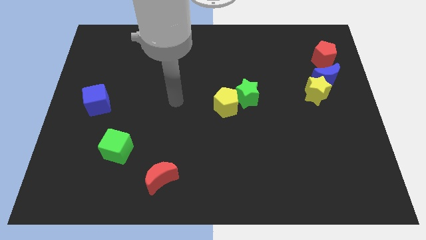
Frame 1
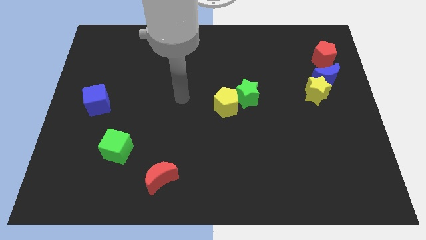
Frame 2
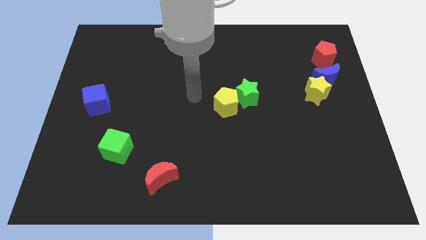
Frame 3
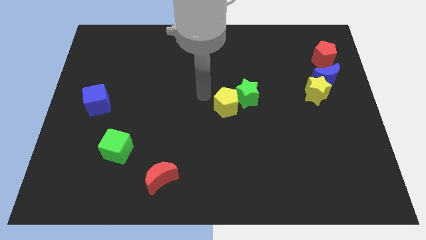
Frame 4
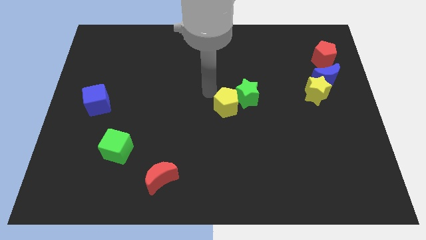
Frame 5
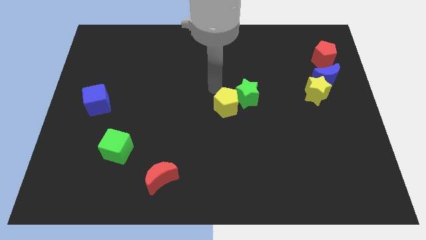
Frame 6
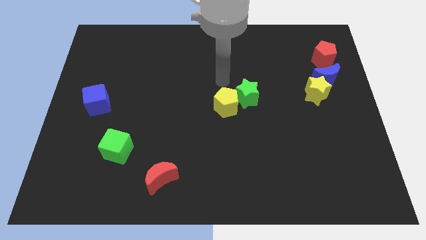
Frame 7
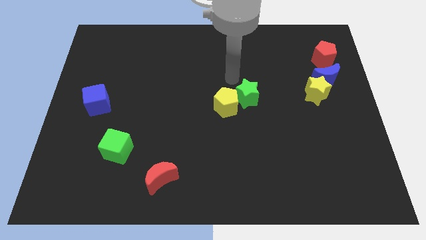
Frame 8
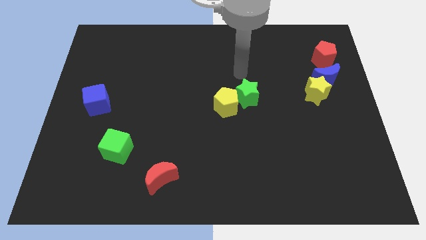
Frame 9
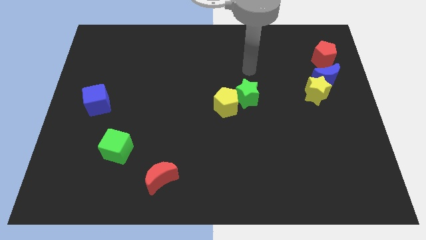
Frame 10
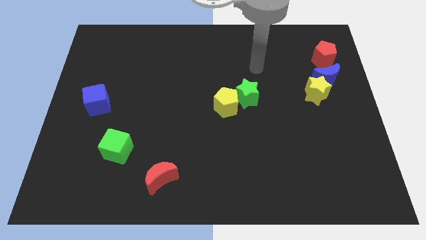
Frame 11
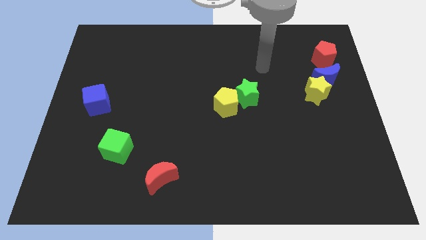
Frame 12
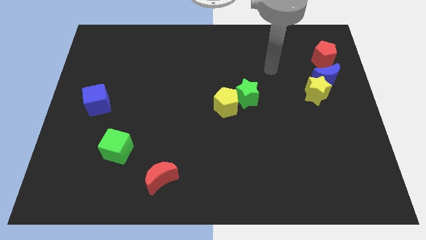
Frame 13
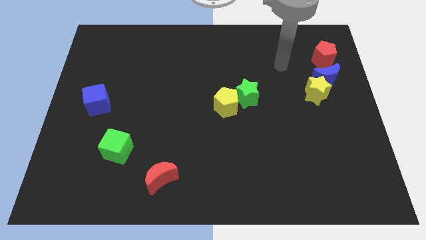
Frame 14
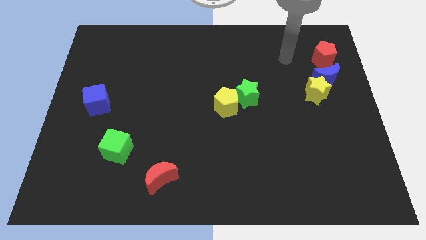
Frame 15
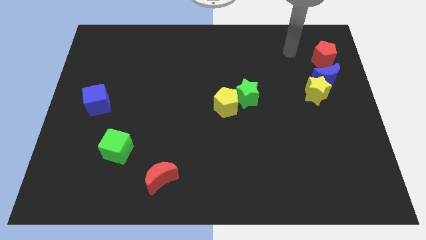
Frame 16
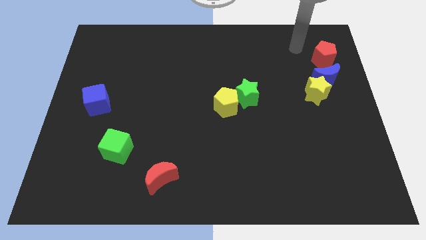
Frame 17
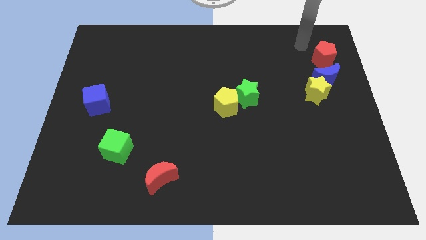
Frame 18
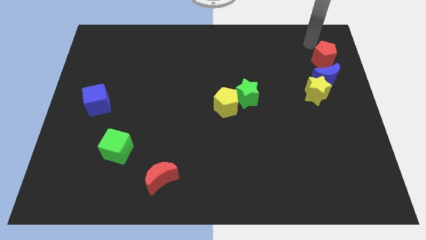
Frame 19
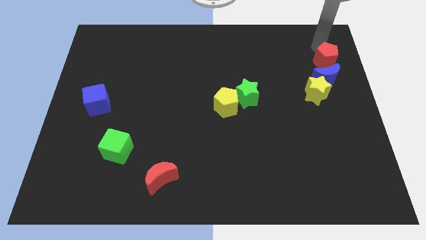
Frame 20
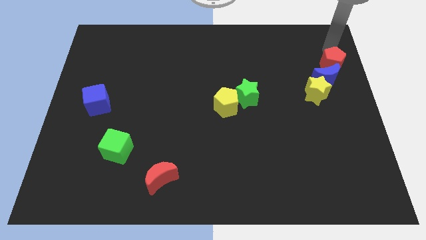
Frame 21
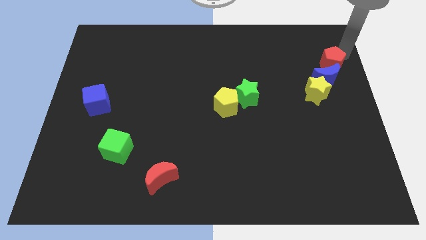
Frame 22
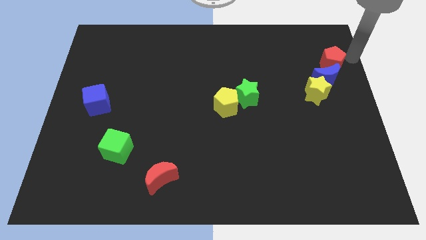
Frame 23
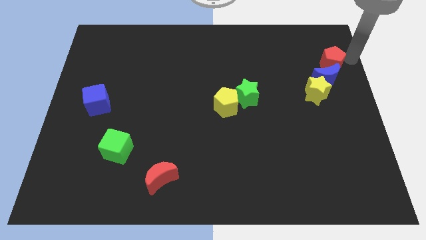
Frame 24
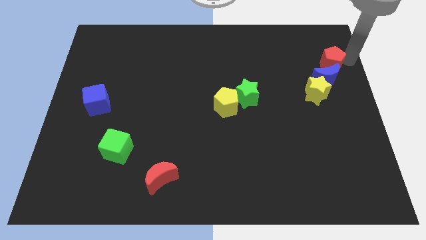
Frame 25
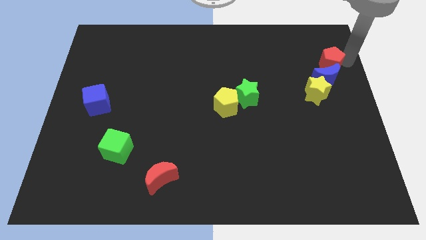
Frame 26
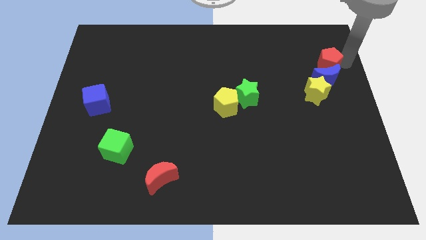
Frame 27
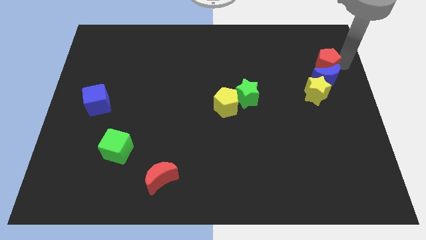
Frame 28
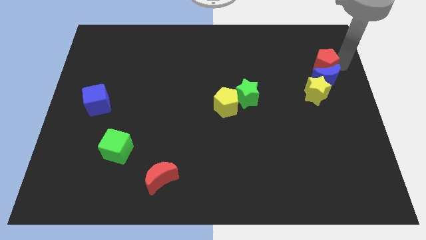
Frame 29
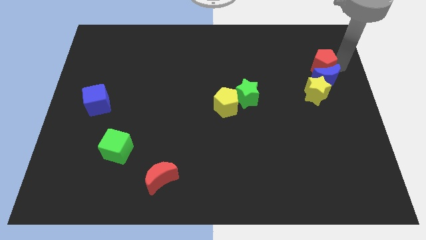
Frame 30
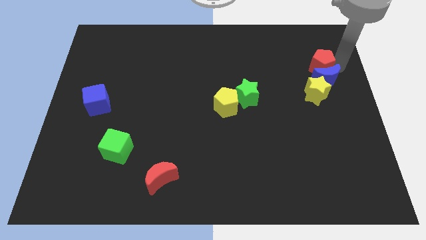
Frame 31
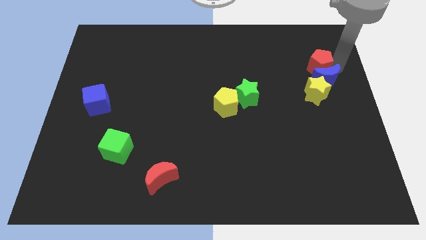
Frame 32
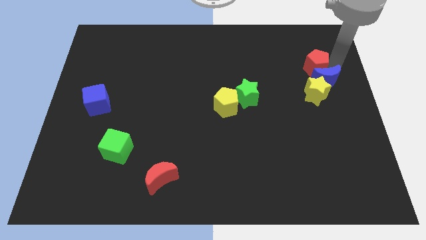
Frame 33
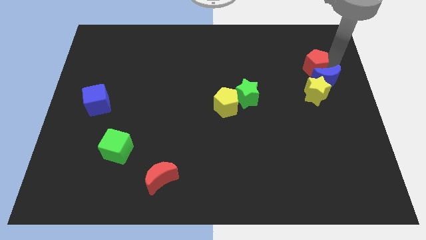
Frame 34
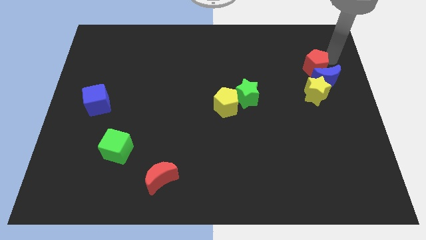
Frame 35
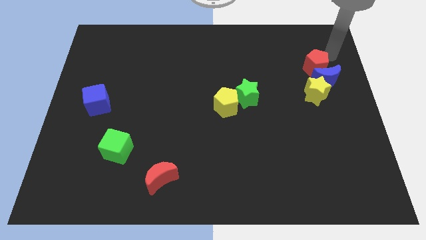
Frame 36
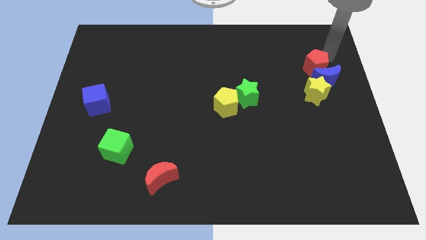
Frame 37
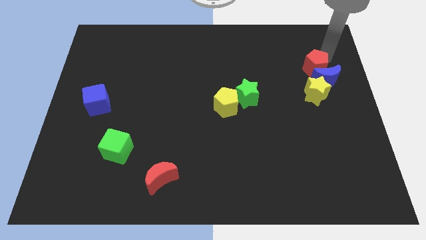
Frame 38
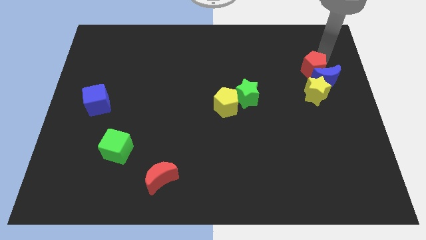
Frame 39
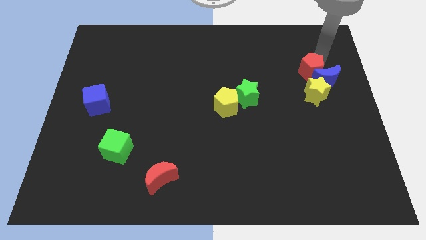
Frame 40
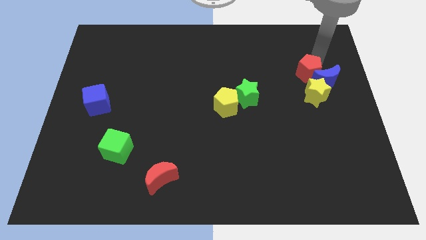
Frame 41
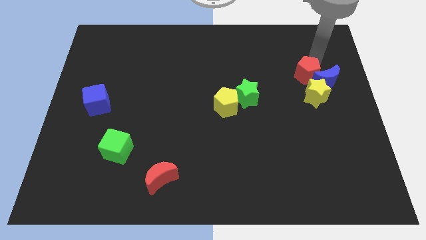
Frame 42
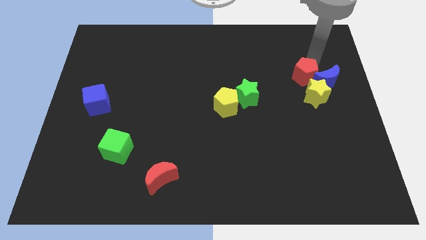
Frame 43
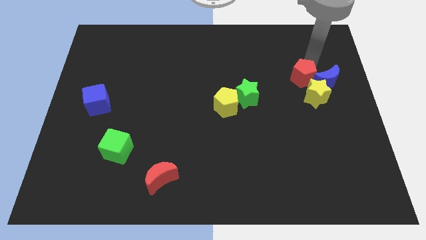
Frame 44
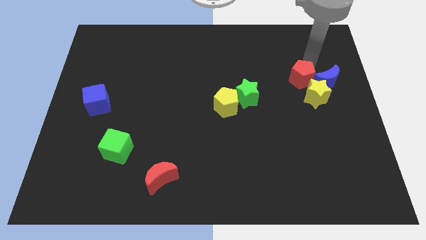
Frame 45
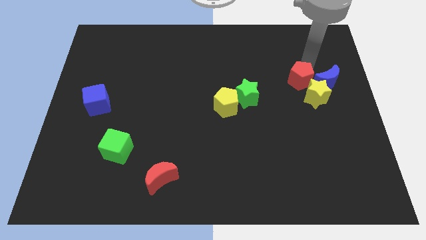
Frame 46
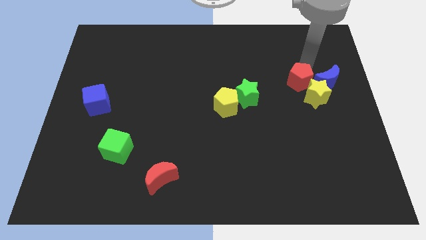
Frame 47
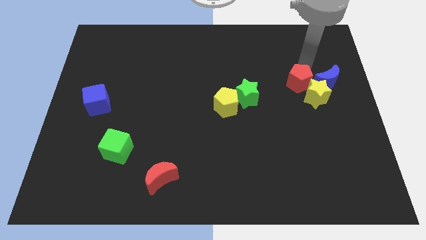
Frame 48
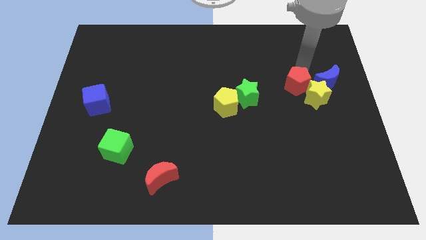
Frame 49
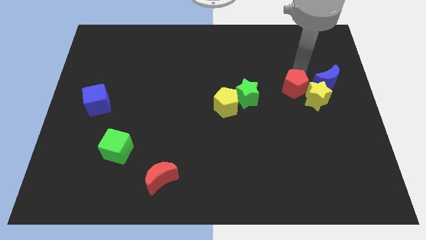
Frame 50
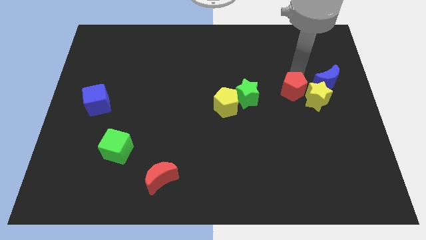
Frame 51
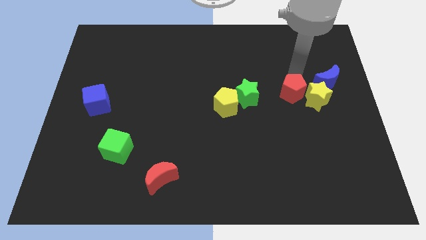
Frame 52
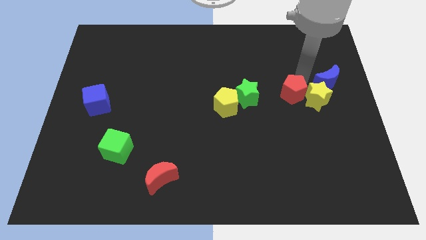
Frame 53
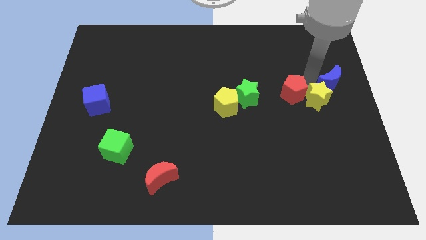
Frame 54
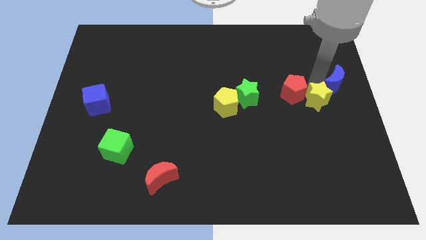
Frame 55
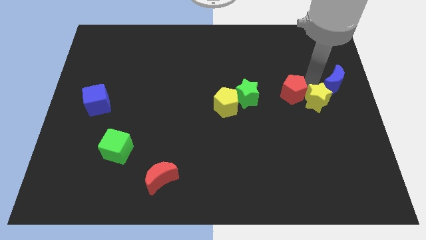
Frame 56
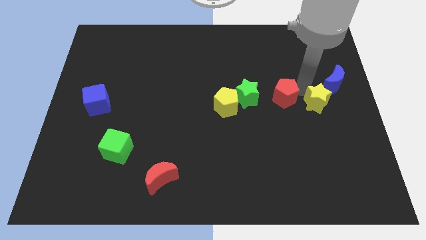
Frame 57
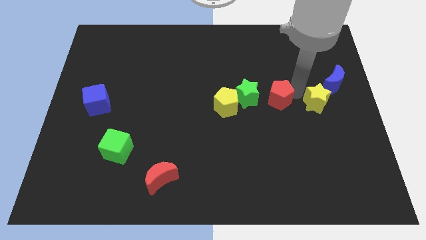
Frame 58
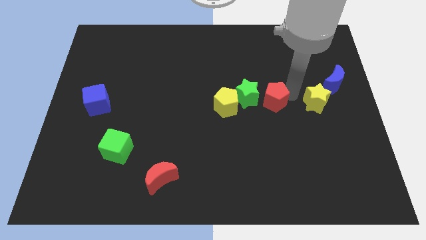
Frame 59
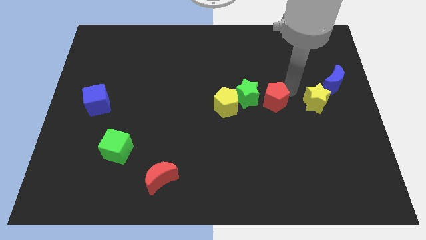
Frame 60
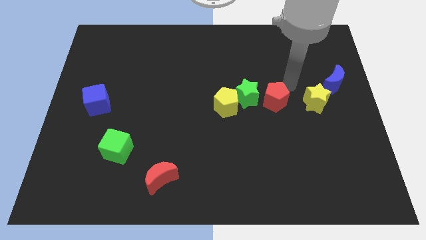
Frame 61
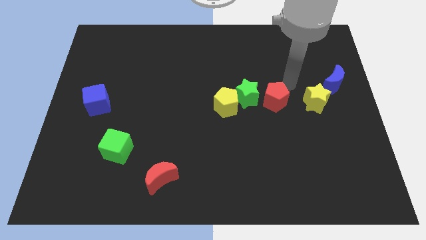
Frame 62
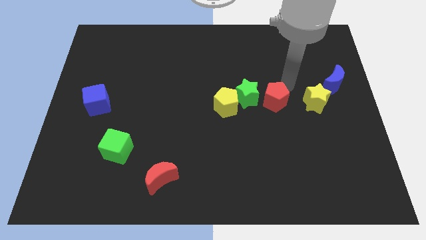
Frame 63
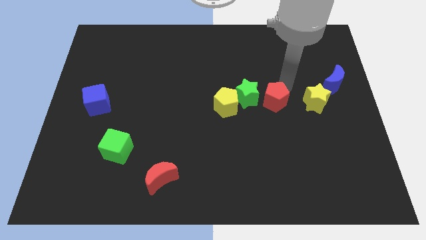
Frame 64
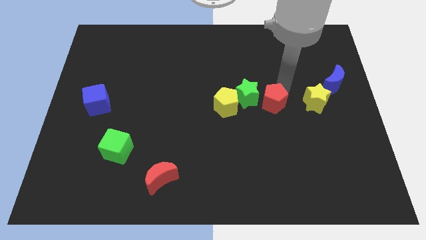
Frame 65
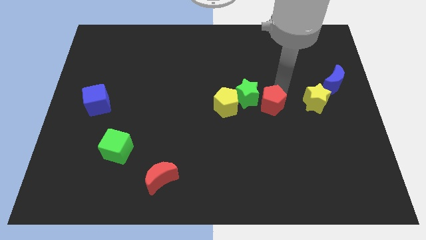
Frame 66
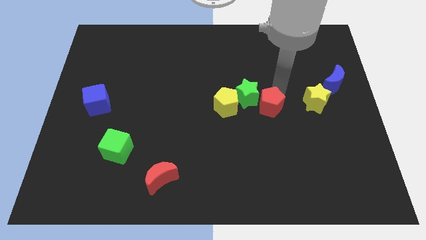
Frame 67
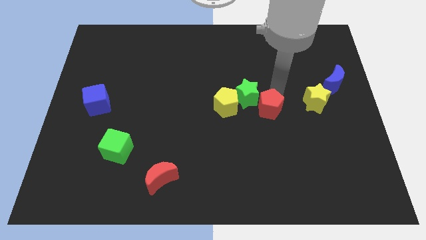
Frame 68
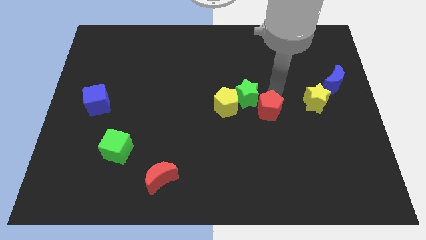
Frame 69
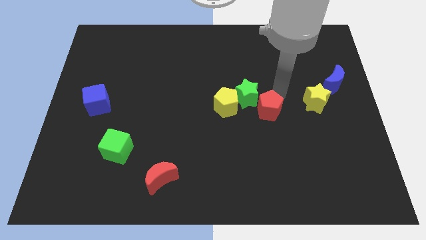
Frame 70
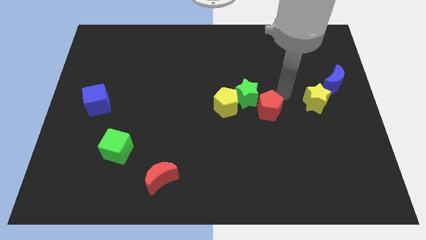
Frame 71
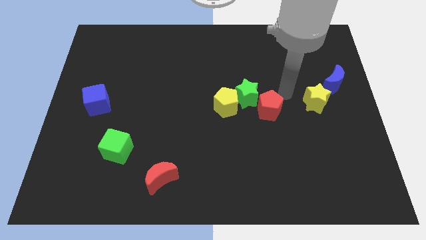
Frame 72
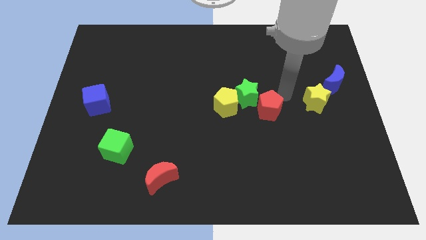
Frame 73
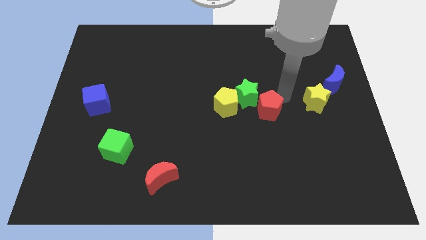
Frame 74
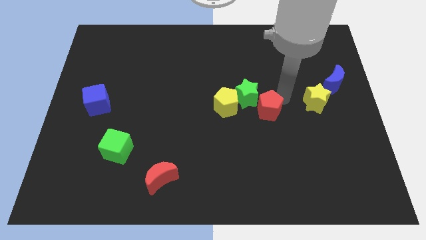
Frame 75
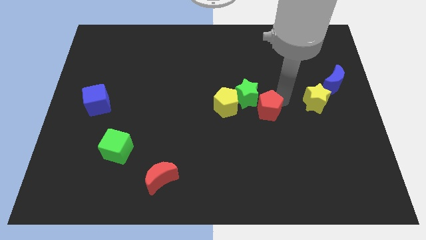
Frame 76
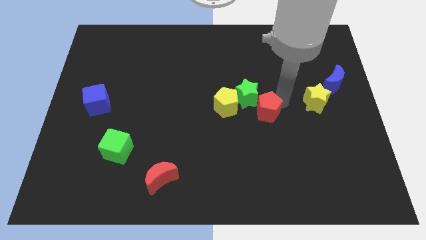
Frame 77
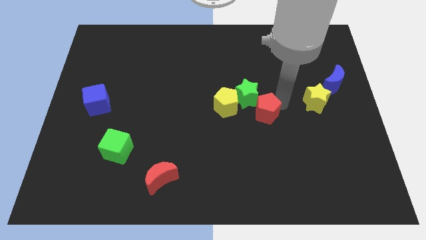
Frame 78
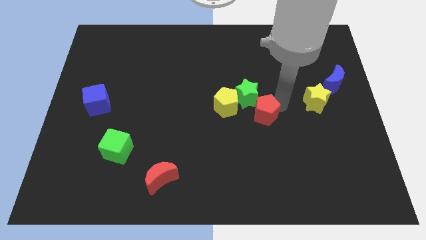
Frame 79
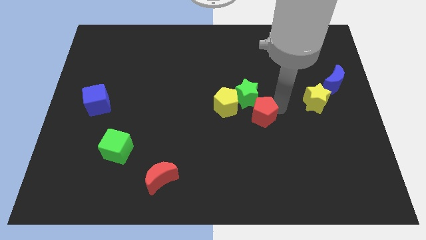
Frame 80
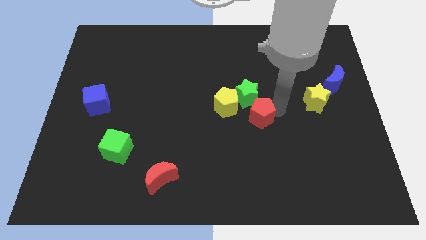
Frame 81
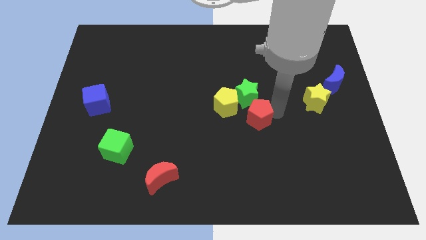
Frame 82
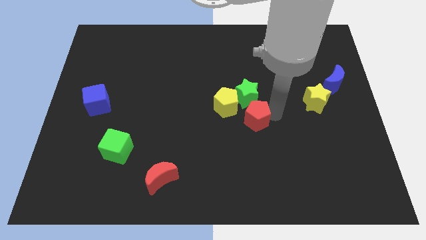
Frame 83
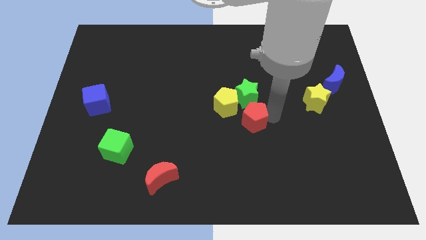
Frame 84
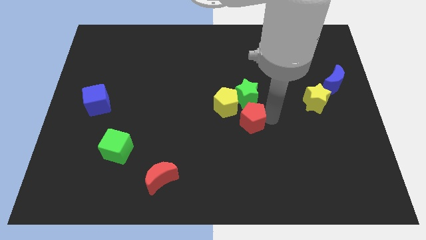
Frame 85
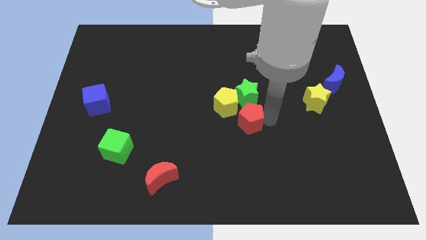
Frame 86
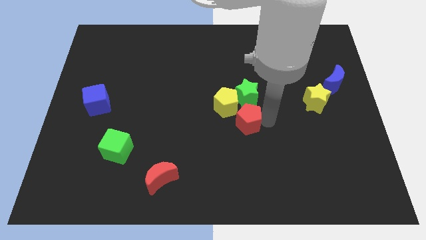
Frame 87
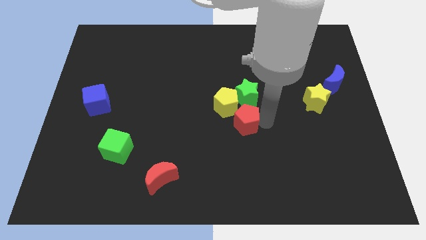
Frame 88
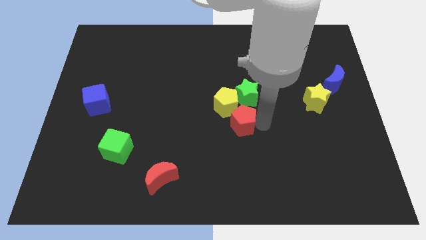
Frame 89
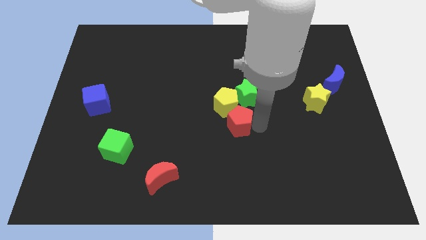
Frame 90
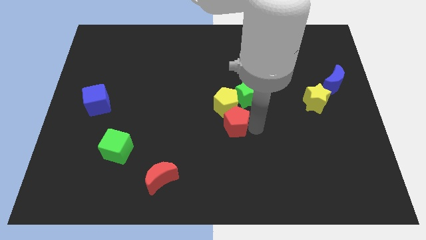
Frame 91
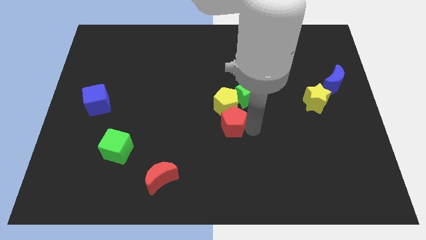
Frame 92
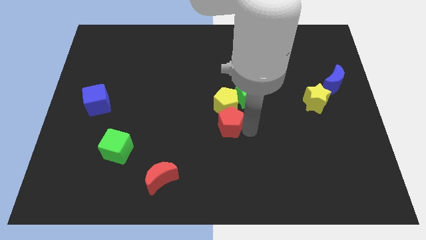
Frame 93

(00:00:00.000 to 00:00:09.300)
put the red pentagon diagonally down and to the left of the yellow pentagon
